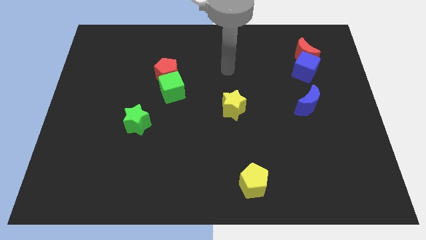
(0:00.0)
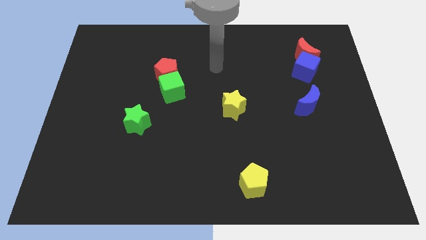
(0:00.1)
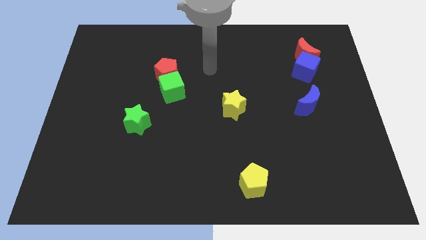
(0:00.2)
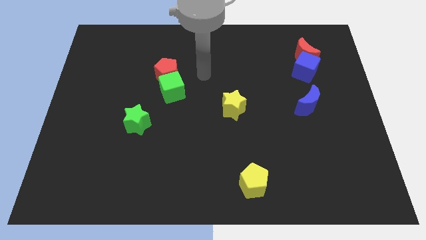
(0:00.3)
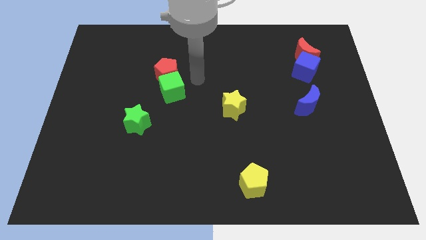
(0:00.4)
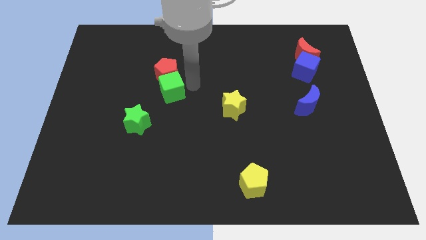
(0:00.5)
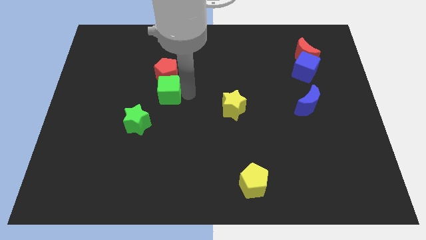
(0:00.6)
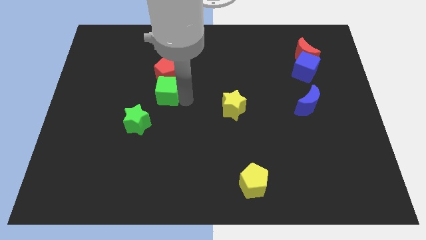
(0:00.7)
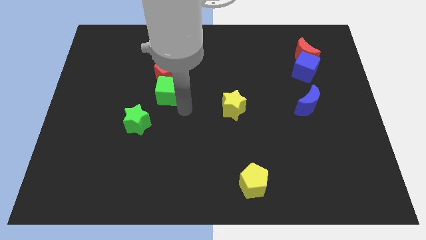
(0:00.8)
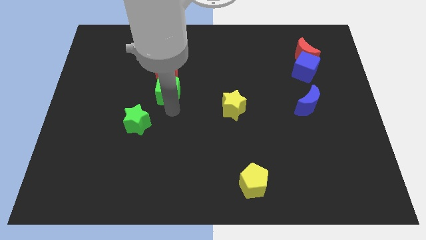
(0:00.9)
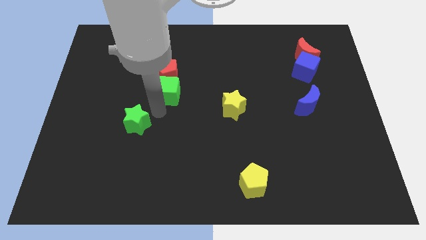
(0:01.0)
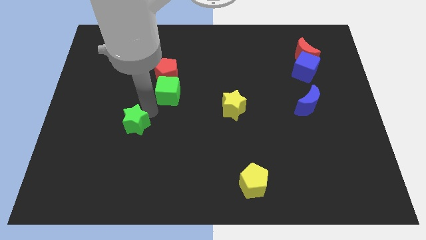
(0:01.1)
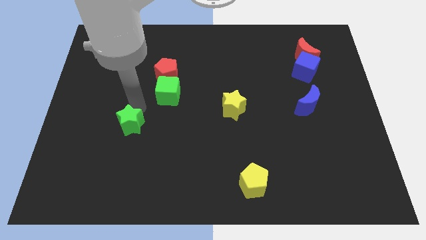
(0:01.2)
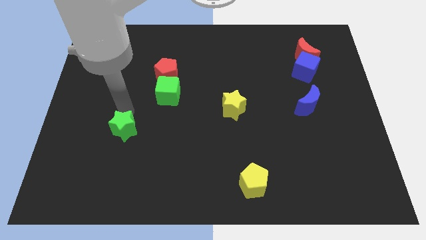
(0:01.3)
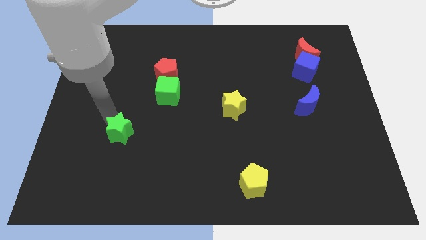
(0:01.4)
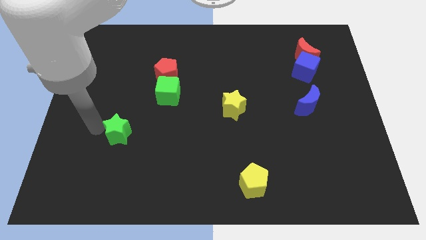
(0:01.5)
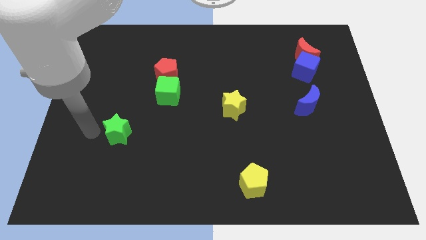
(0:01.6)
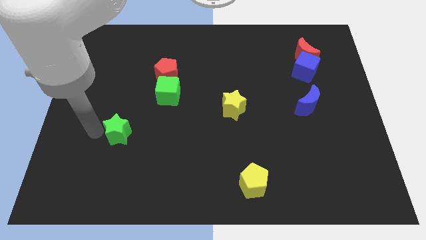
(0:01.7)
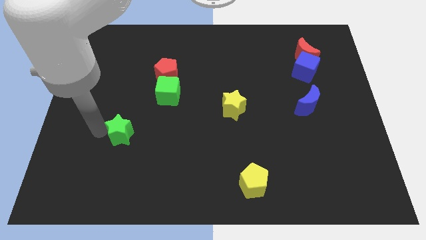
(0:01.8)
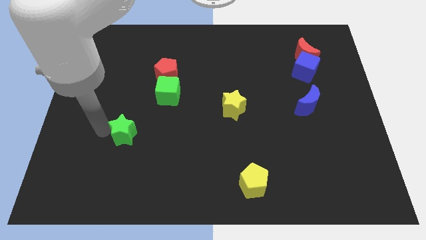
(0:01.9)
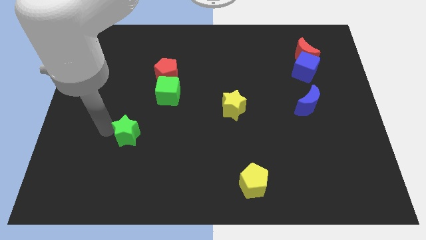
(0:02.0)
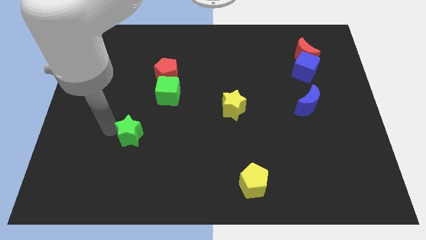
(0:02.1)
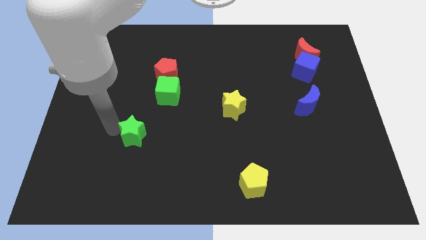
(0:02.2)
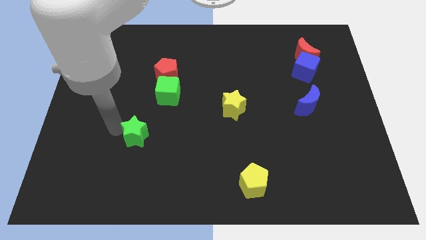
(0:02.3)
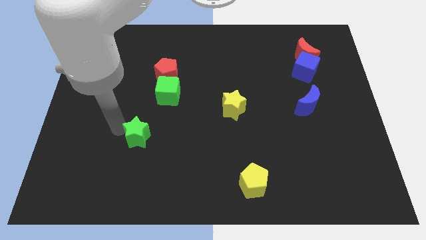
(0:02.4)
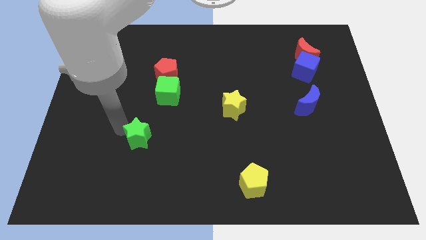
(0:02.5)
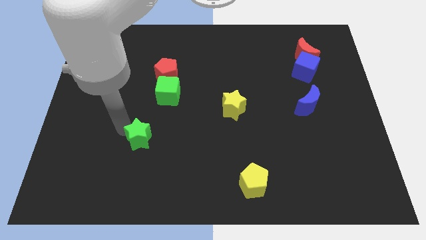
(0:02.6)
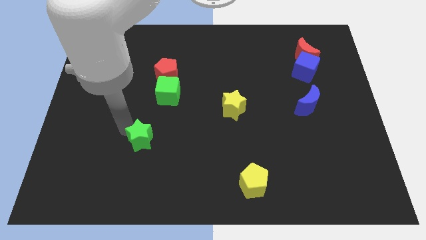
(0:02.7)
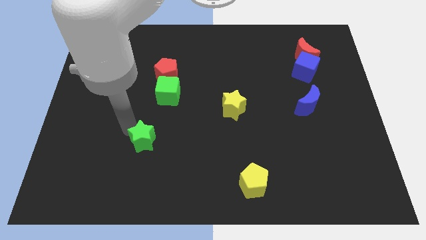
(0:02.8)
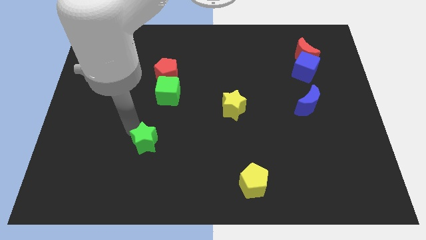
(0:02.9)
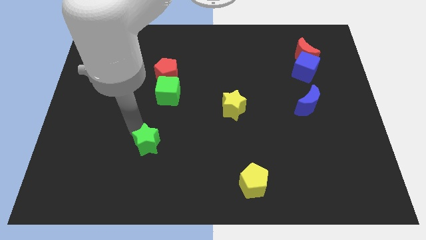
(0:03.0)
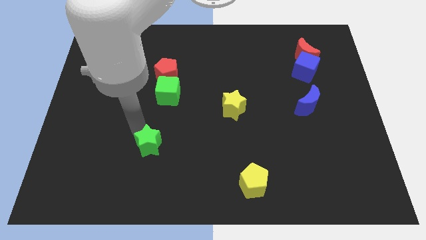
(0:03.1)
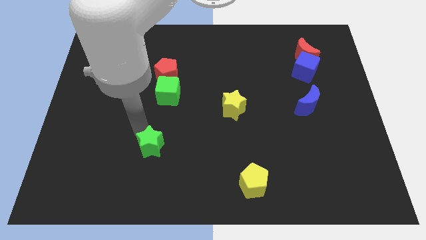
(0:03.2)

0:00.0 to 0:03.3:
slide the green star a bit downwards and right diagonally

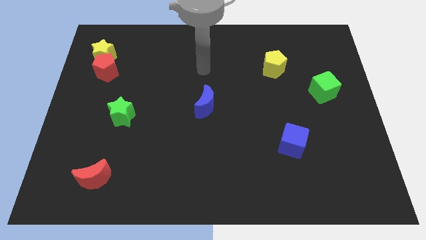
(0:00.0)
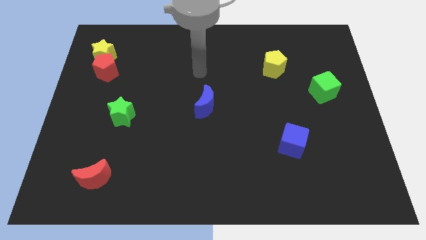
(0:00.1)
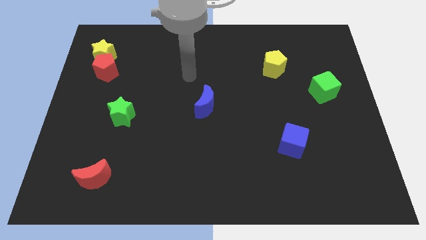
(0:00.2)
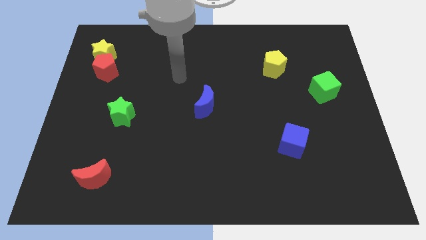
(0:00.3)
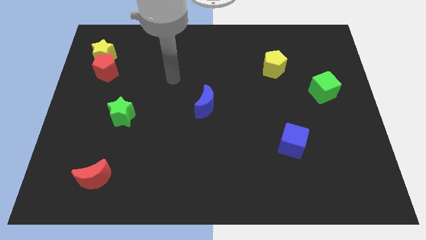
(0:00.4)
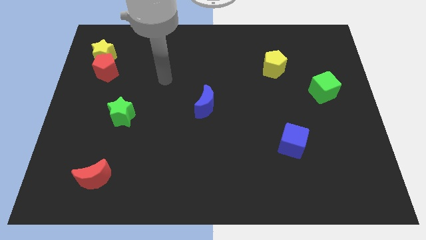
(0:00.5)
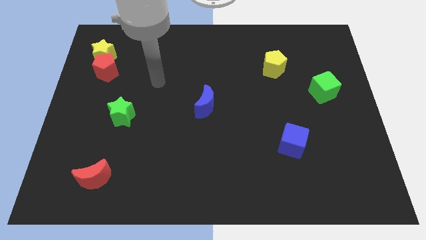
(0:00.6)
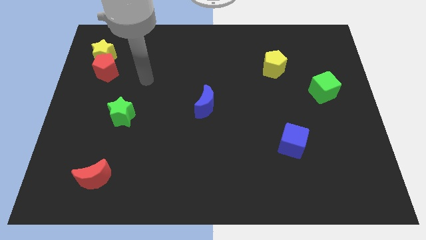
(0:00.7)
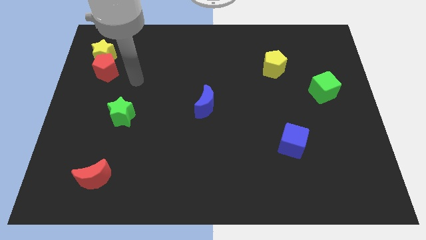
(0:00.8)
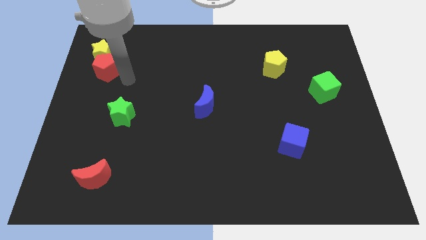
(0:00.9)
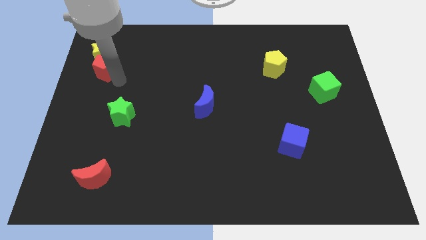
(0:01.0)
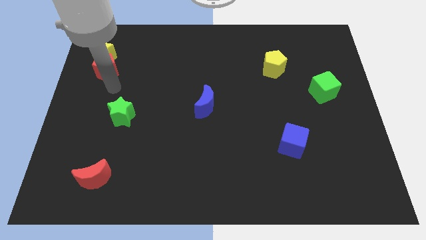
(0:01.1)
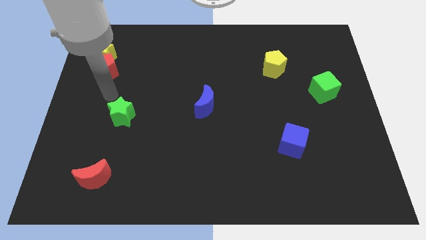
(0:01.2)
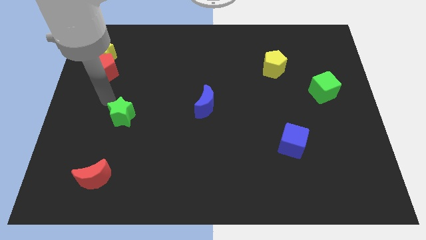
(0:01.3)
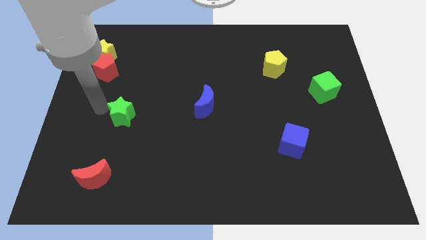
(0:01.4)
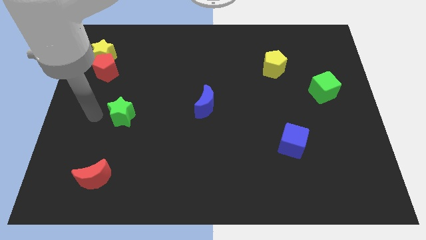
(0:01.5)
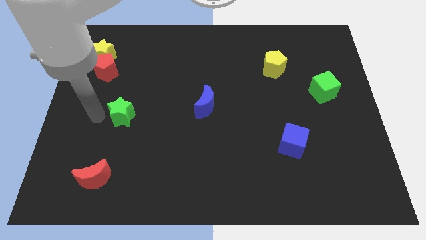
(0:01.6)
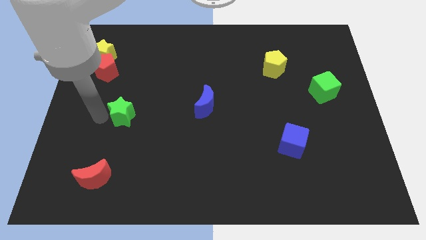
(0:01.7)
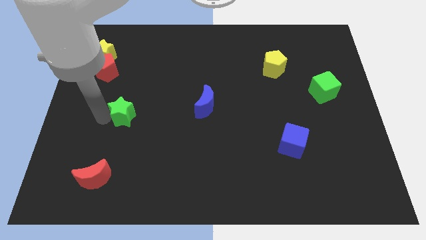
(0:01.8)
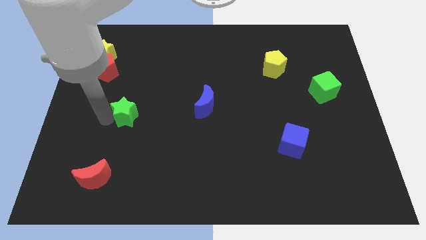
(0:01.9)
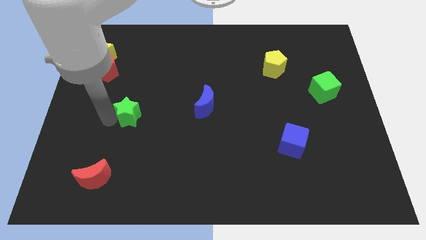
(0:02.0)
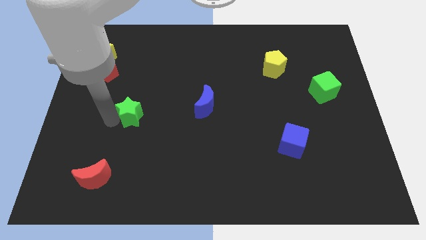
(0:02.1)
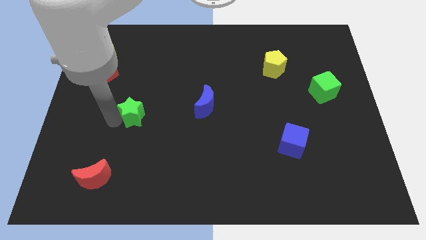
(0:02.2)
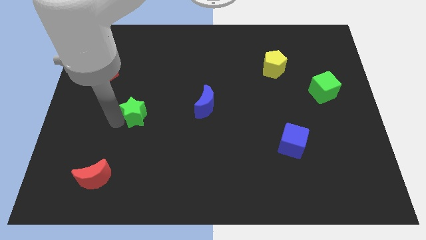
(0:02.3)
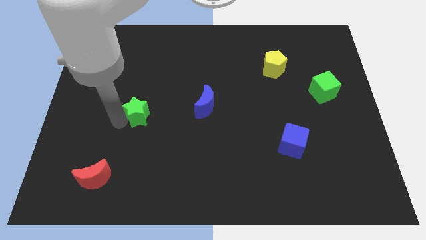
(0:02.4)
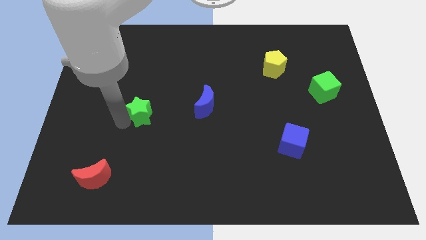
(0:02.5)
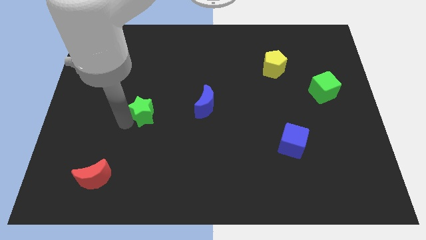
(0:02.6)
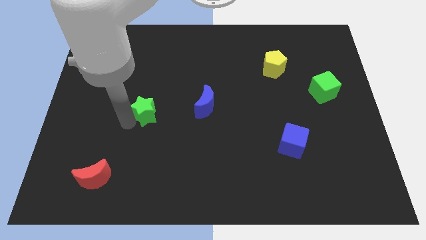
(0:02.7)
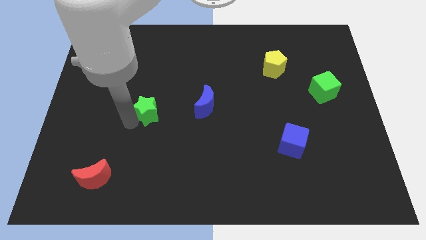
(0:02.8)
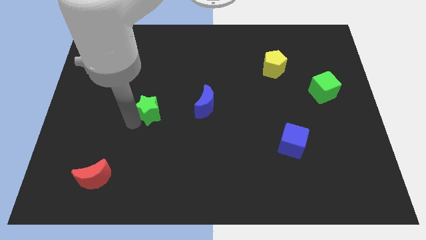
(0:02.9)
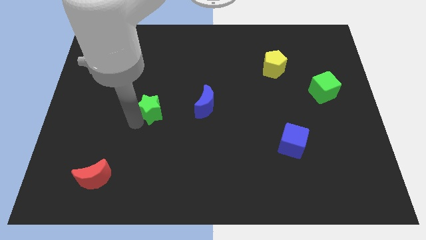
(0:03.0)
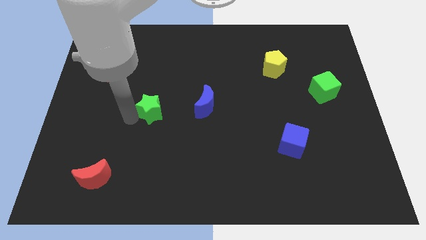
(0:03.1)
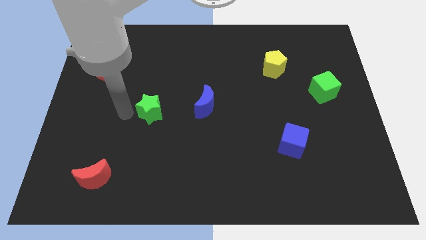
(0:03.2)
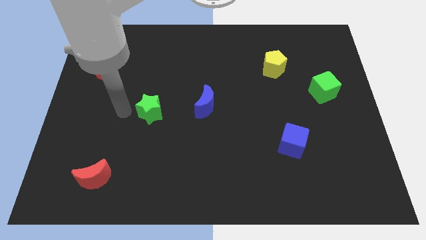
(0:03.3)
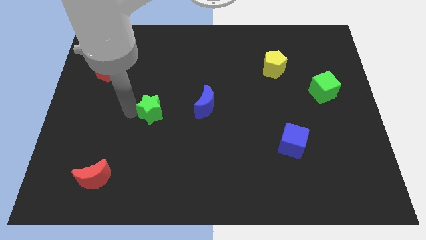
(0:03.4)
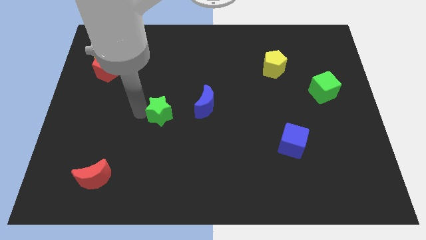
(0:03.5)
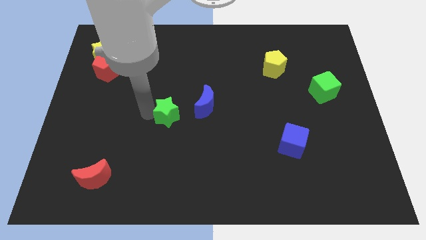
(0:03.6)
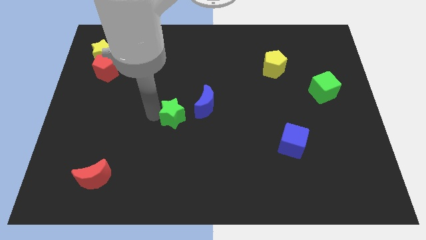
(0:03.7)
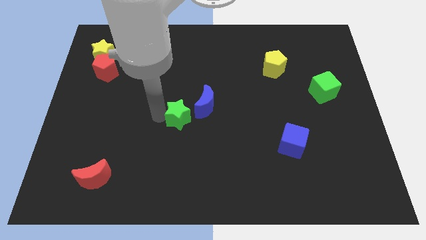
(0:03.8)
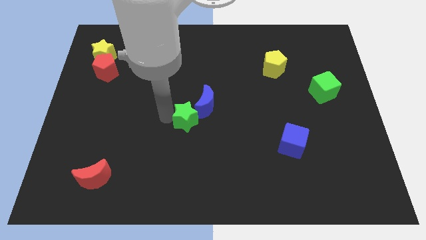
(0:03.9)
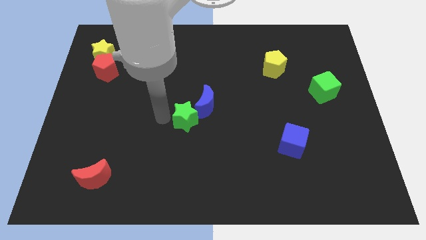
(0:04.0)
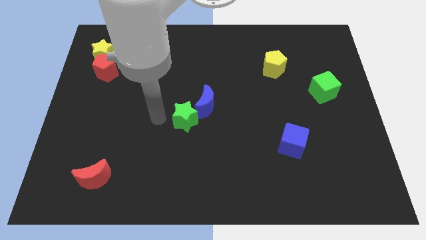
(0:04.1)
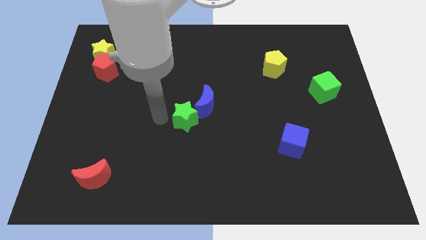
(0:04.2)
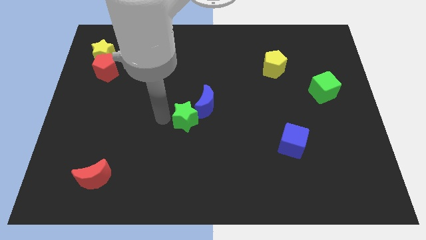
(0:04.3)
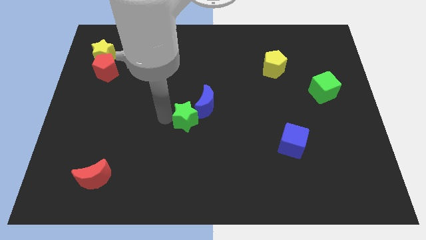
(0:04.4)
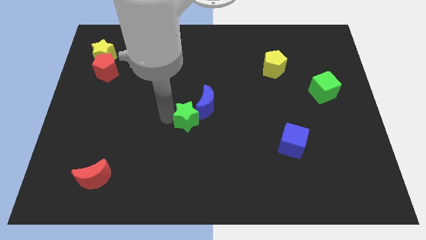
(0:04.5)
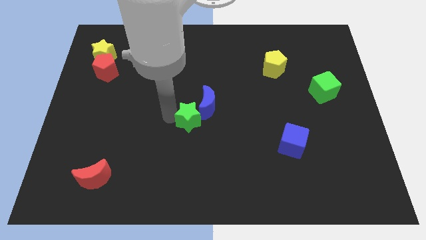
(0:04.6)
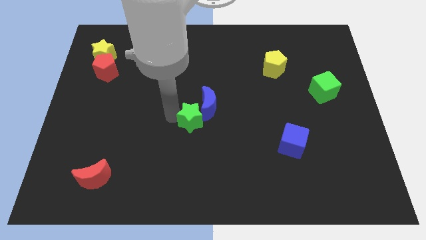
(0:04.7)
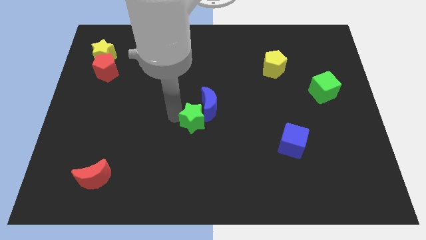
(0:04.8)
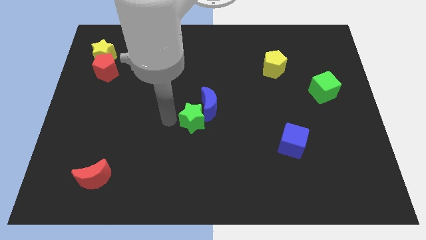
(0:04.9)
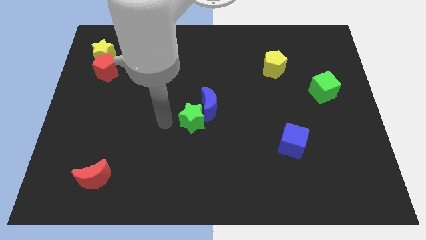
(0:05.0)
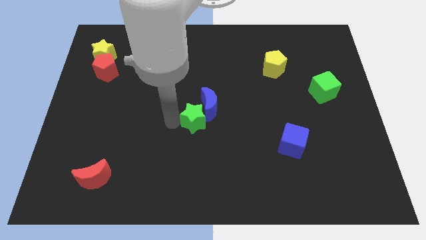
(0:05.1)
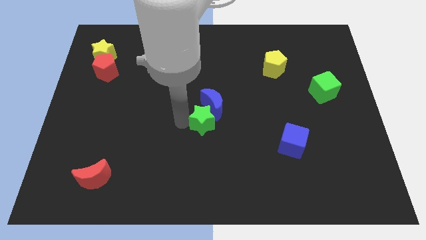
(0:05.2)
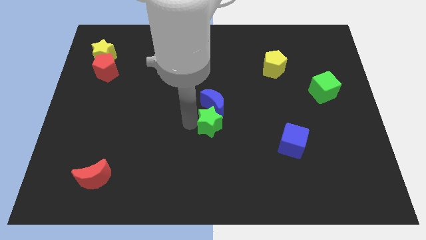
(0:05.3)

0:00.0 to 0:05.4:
push the green star right
